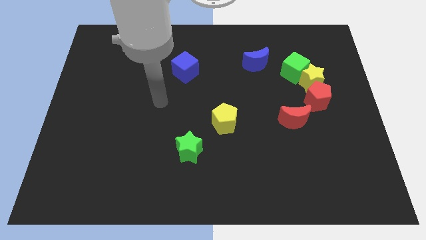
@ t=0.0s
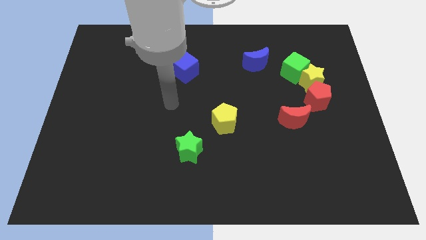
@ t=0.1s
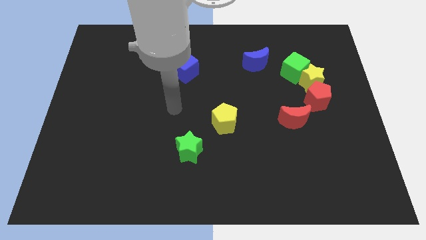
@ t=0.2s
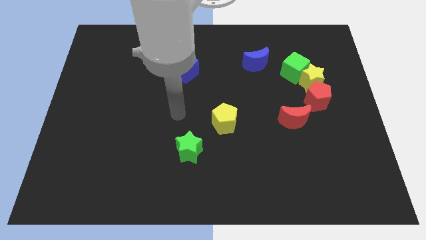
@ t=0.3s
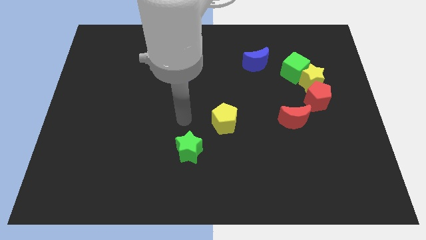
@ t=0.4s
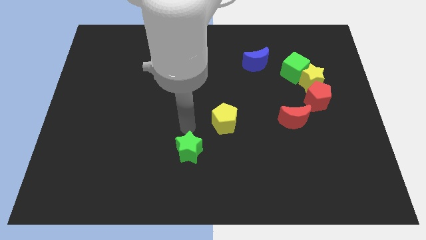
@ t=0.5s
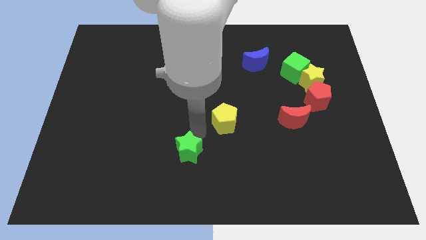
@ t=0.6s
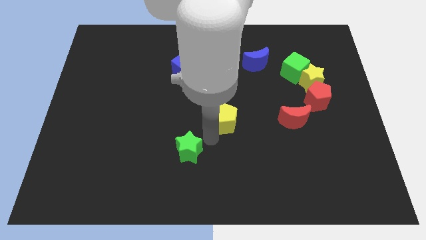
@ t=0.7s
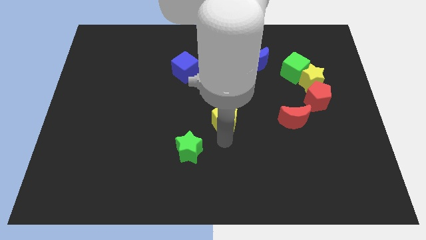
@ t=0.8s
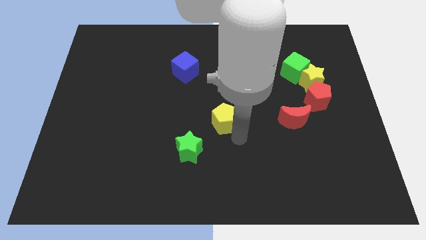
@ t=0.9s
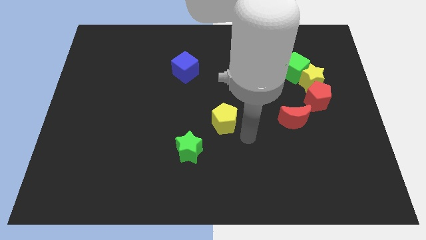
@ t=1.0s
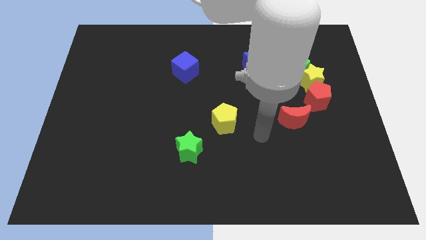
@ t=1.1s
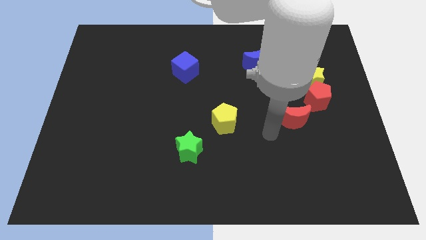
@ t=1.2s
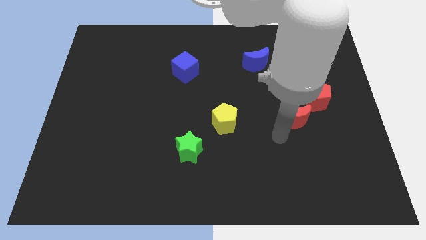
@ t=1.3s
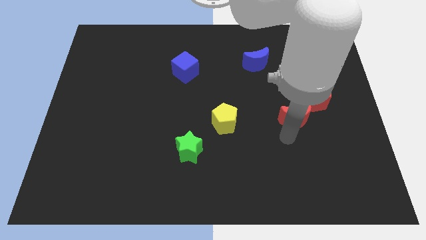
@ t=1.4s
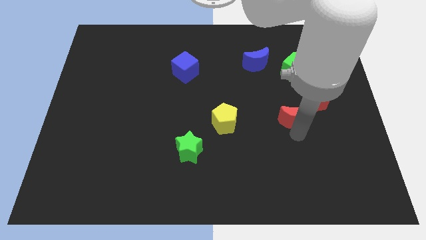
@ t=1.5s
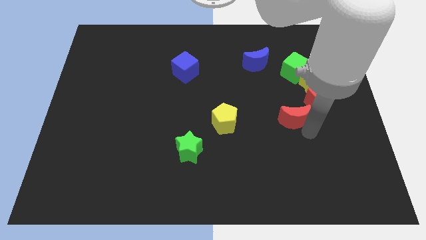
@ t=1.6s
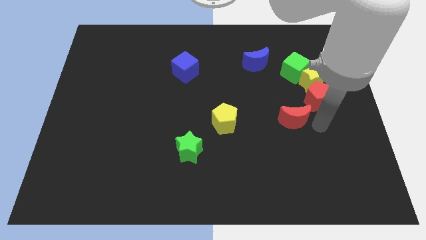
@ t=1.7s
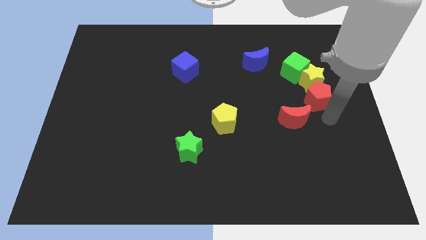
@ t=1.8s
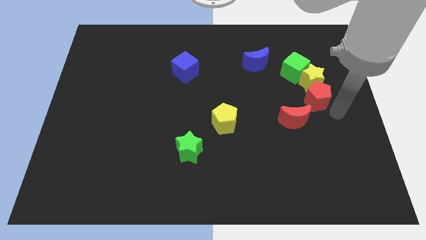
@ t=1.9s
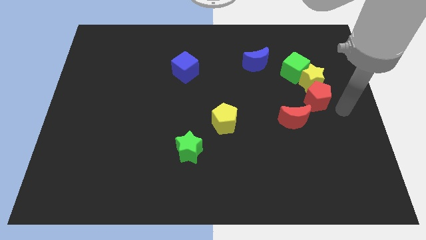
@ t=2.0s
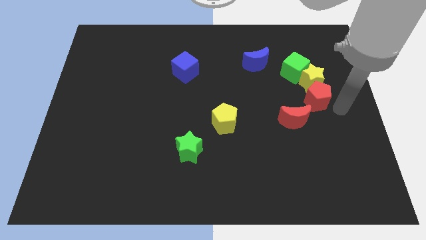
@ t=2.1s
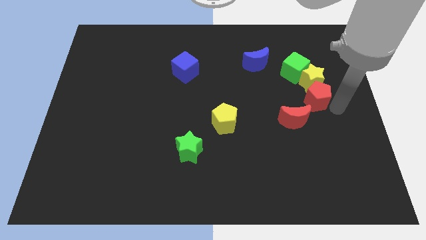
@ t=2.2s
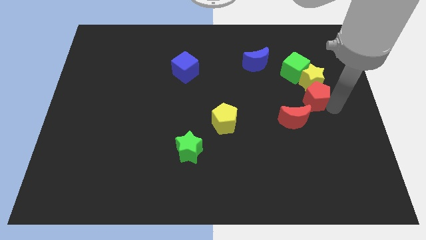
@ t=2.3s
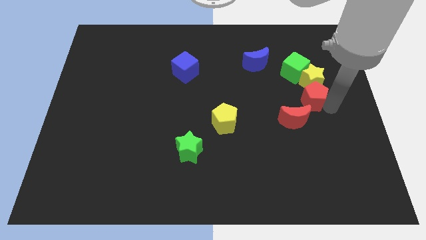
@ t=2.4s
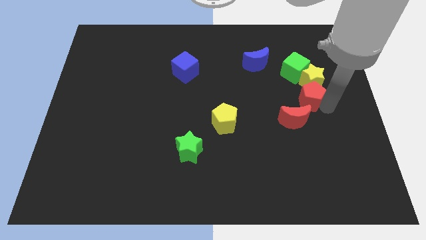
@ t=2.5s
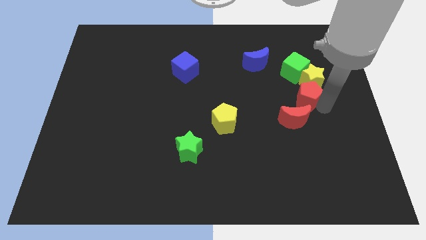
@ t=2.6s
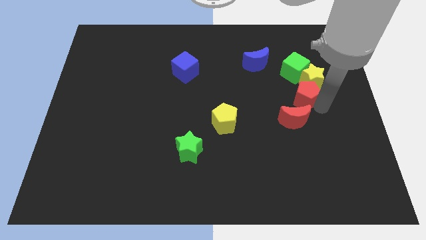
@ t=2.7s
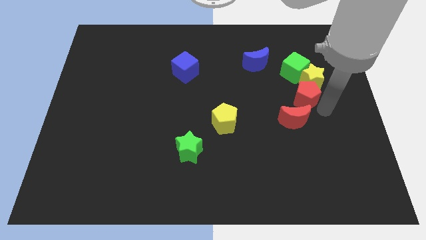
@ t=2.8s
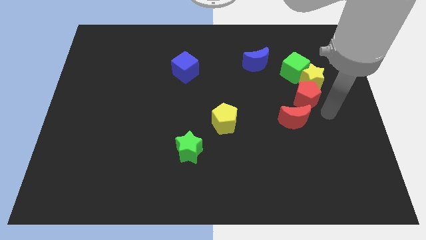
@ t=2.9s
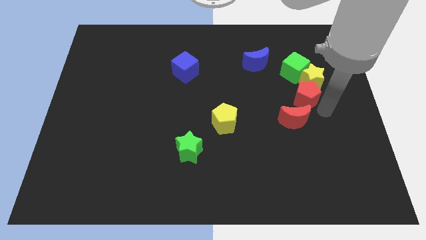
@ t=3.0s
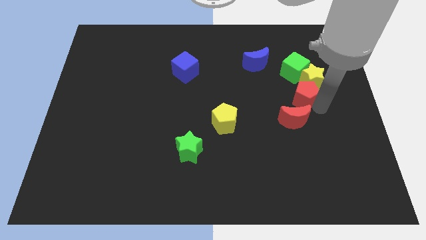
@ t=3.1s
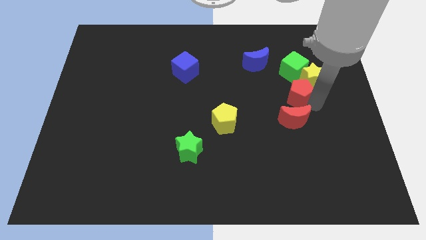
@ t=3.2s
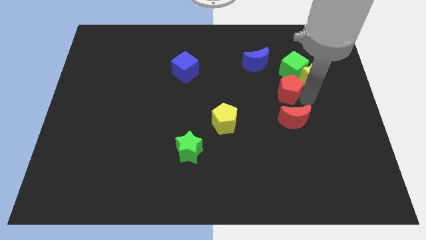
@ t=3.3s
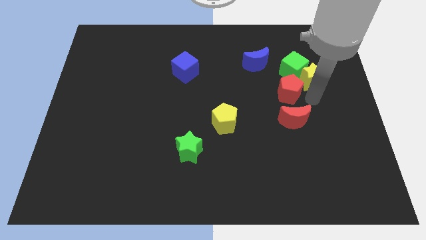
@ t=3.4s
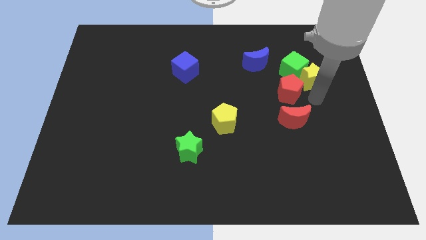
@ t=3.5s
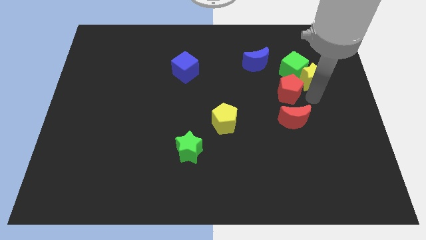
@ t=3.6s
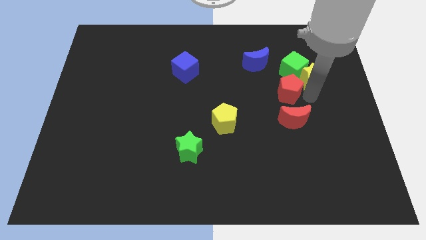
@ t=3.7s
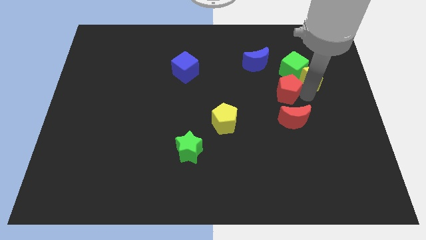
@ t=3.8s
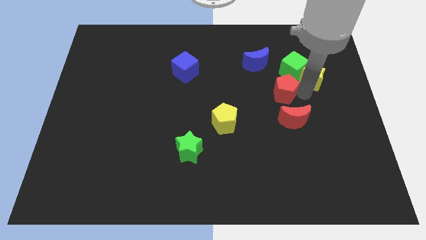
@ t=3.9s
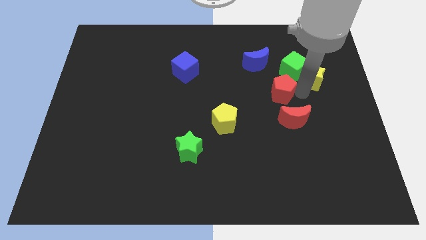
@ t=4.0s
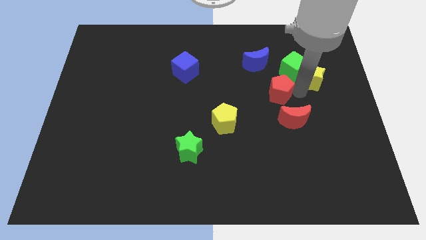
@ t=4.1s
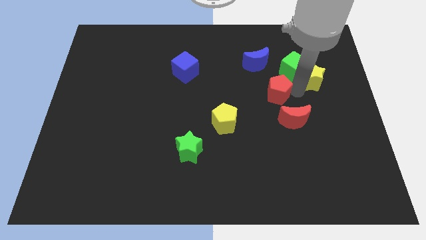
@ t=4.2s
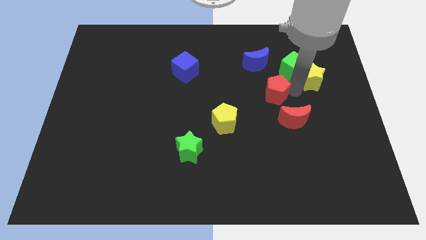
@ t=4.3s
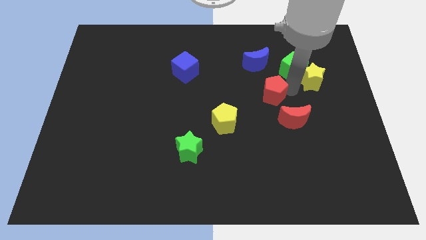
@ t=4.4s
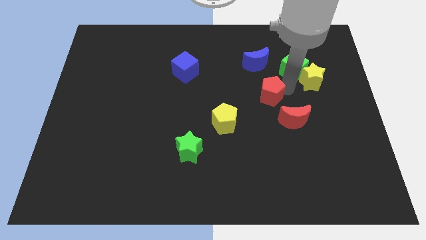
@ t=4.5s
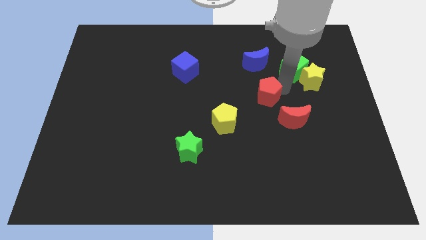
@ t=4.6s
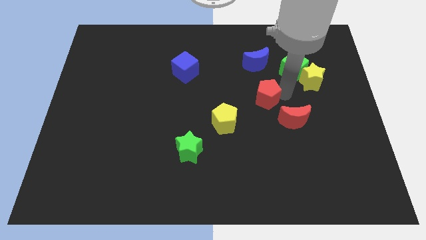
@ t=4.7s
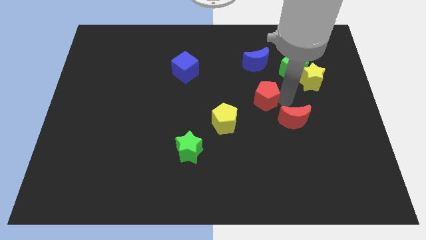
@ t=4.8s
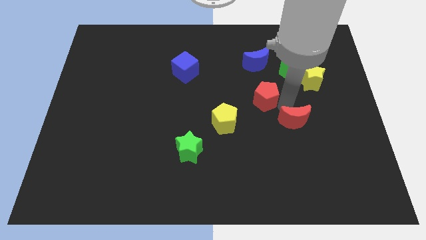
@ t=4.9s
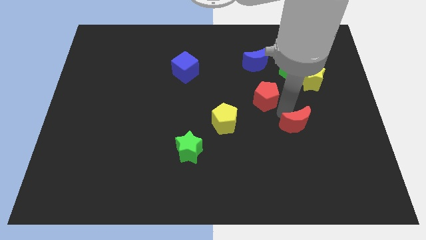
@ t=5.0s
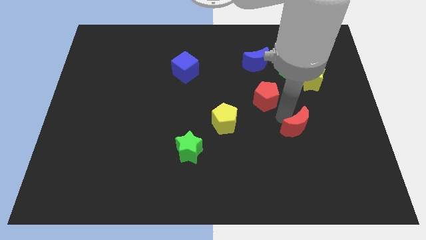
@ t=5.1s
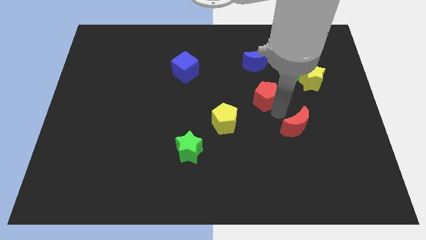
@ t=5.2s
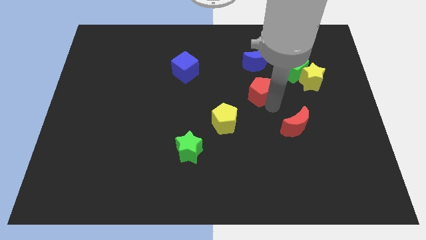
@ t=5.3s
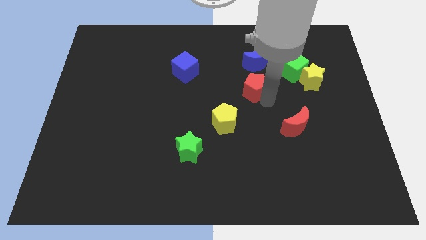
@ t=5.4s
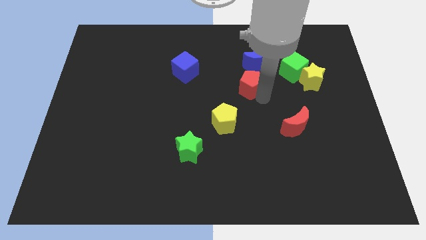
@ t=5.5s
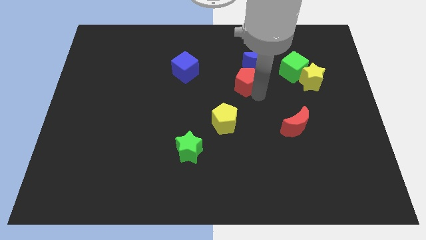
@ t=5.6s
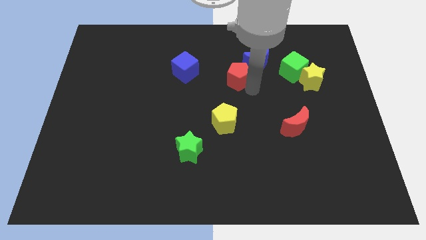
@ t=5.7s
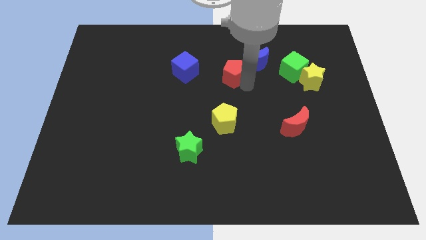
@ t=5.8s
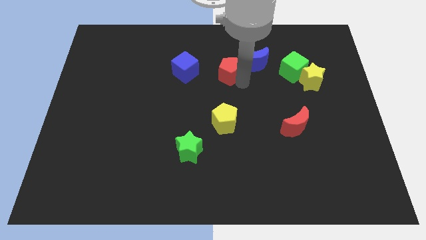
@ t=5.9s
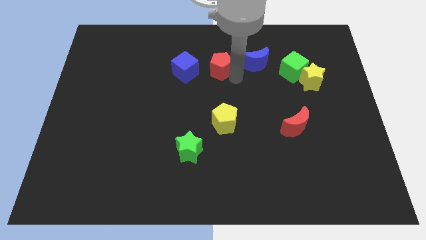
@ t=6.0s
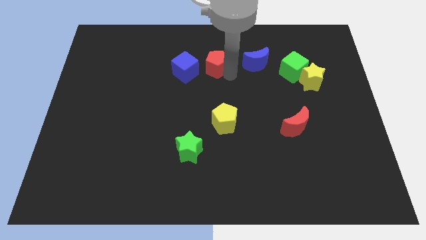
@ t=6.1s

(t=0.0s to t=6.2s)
push the red pentagon diagonally up and to the right of the blue cube

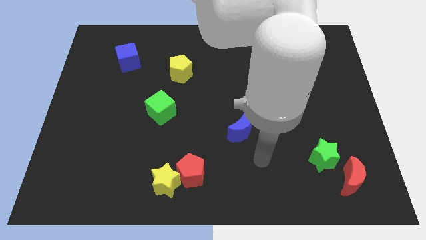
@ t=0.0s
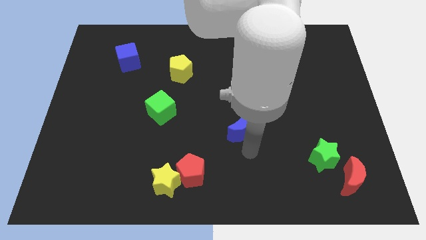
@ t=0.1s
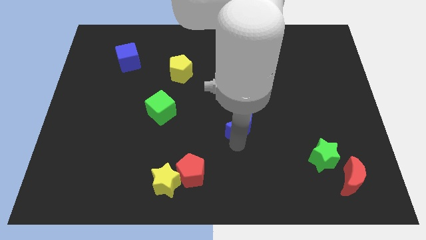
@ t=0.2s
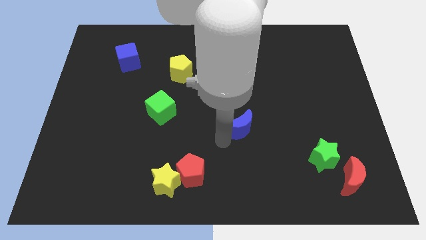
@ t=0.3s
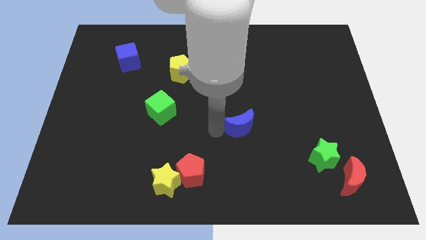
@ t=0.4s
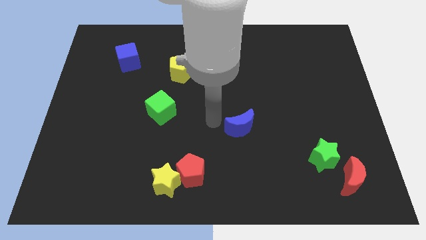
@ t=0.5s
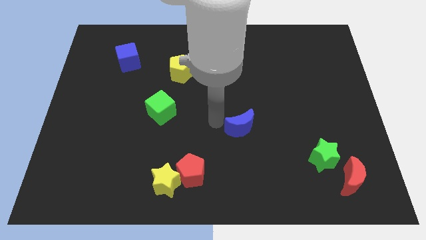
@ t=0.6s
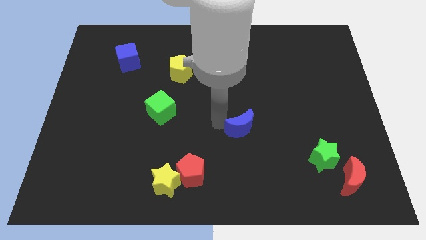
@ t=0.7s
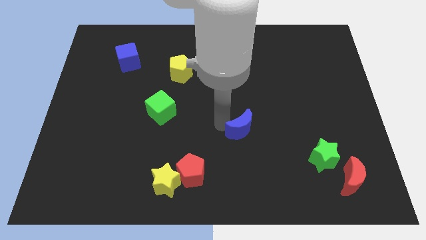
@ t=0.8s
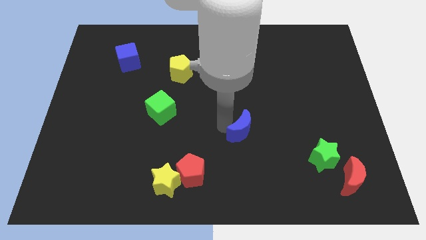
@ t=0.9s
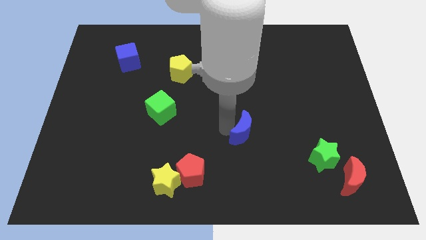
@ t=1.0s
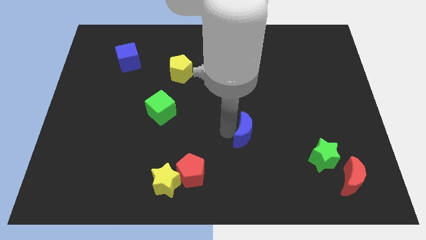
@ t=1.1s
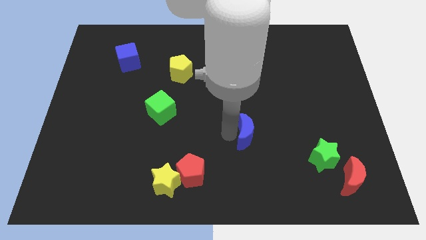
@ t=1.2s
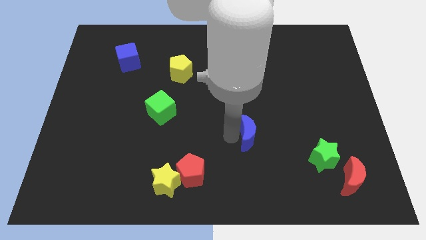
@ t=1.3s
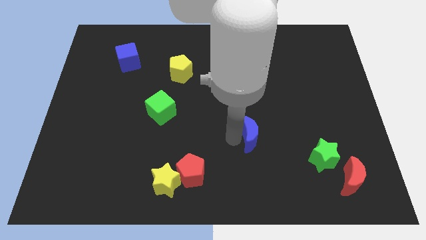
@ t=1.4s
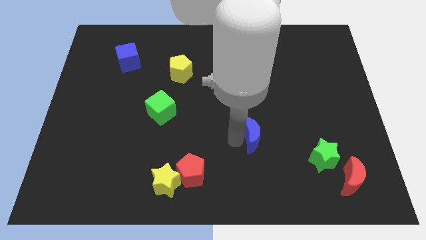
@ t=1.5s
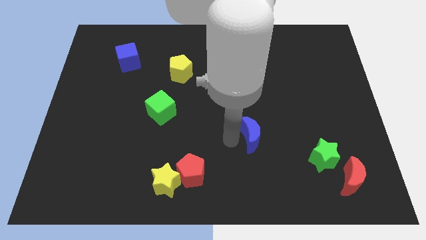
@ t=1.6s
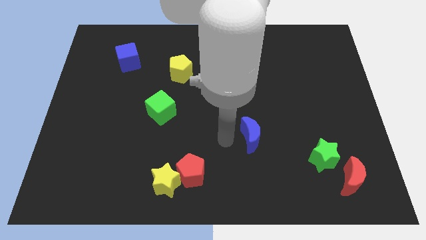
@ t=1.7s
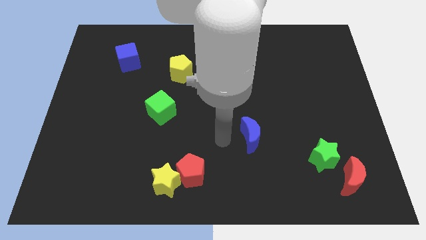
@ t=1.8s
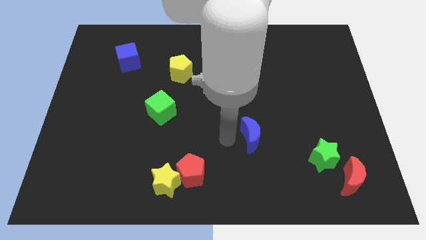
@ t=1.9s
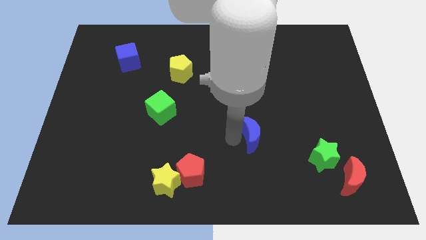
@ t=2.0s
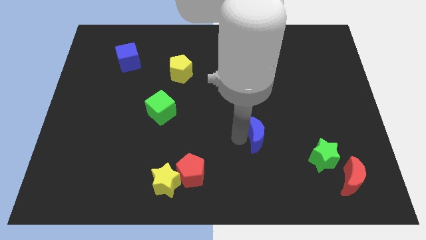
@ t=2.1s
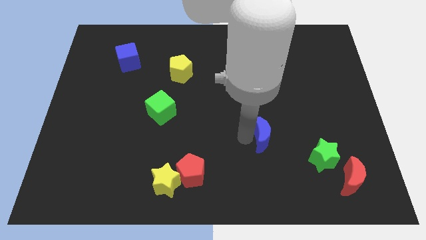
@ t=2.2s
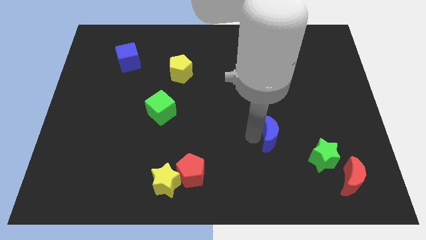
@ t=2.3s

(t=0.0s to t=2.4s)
push the blue moon to the top left side of the green star
